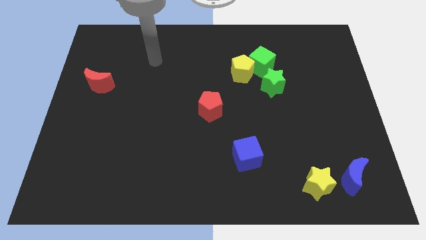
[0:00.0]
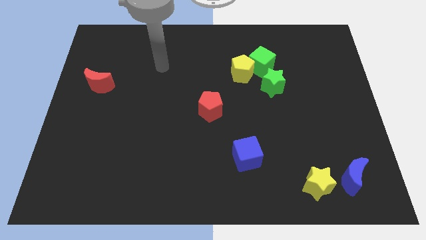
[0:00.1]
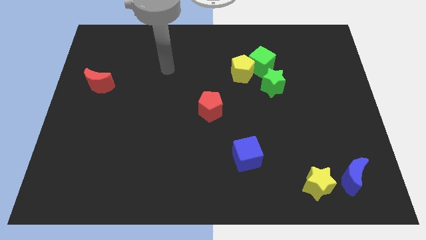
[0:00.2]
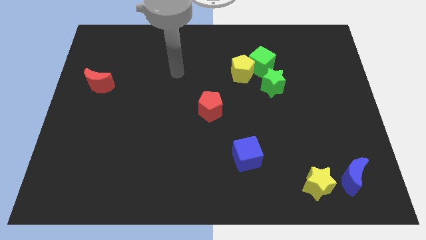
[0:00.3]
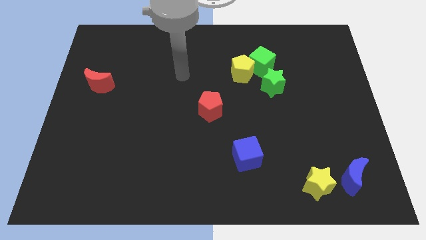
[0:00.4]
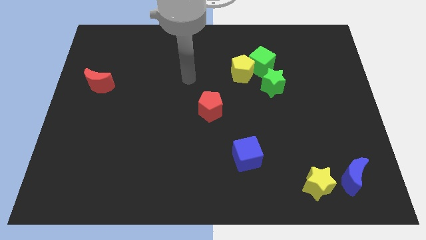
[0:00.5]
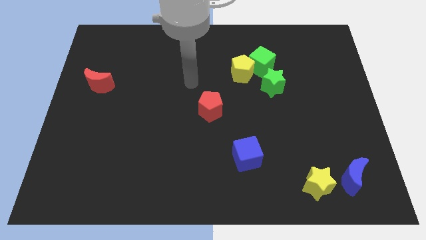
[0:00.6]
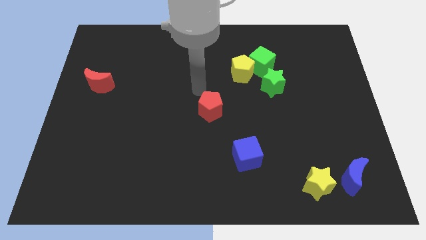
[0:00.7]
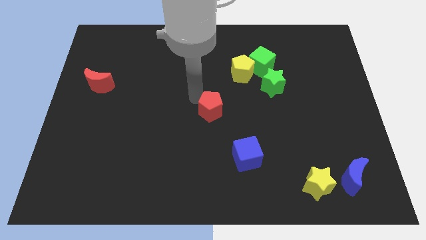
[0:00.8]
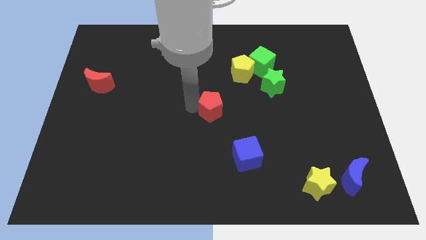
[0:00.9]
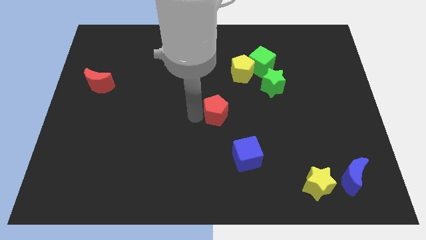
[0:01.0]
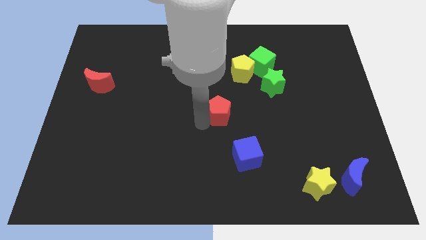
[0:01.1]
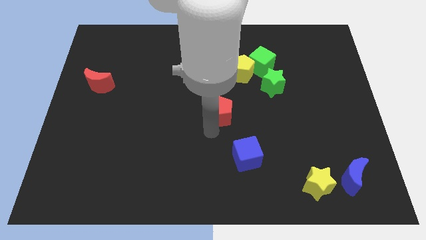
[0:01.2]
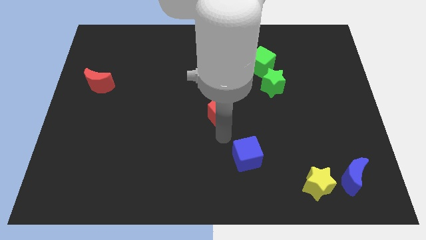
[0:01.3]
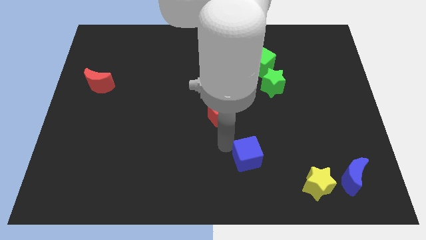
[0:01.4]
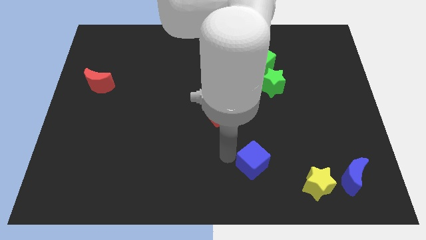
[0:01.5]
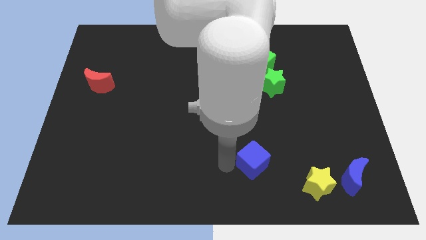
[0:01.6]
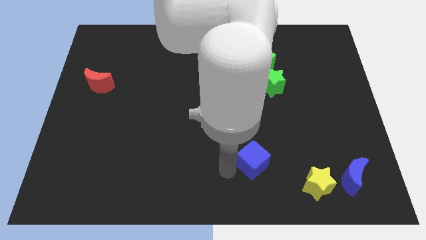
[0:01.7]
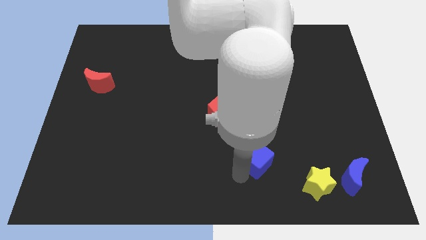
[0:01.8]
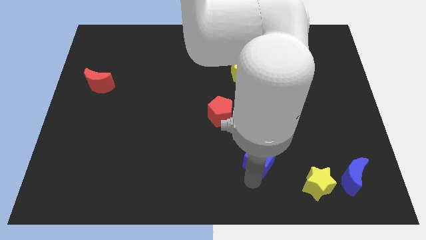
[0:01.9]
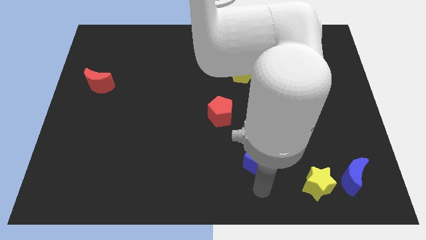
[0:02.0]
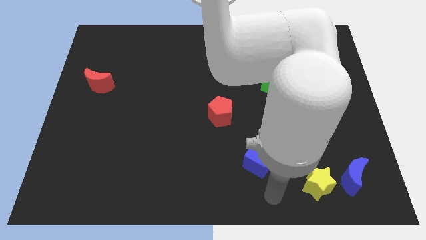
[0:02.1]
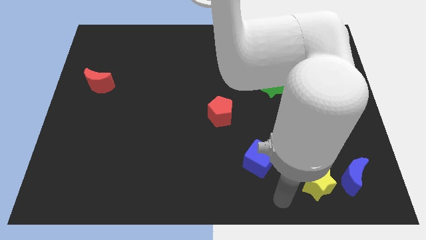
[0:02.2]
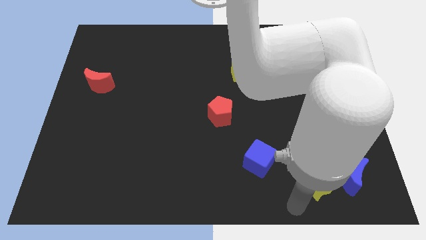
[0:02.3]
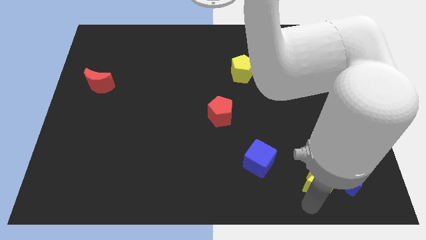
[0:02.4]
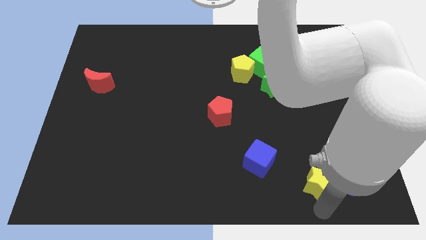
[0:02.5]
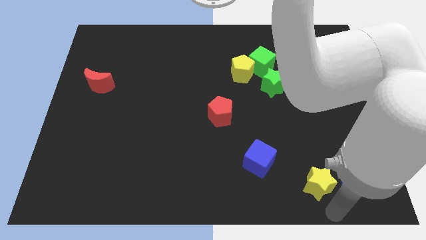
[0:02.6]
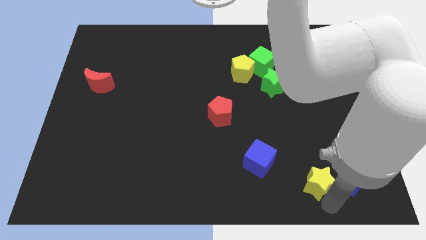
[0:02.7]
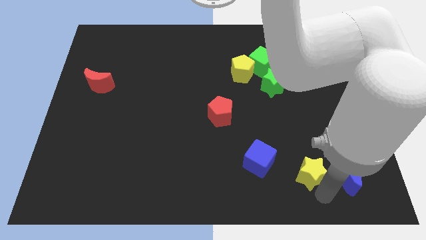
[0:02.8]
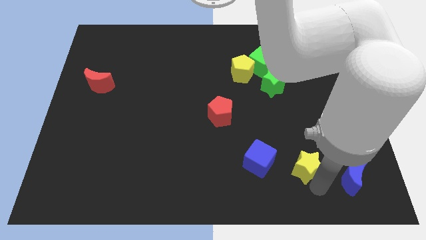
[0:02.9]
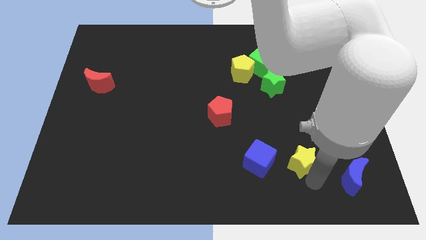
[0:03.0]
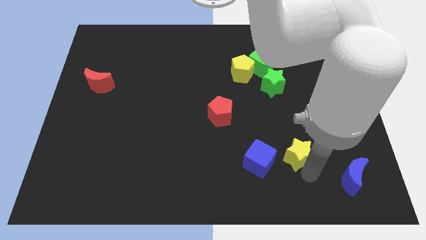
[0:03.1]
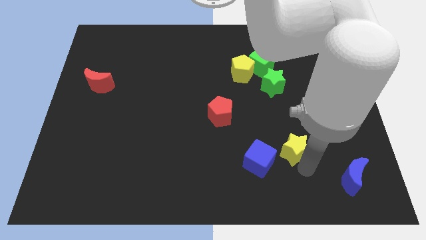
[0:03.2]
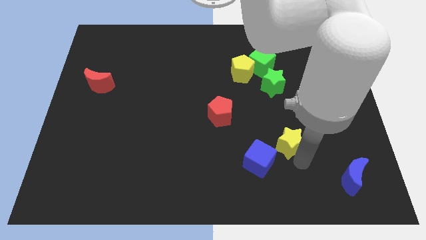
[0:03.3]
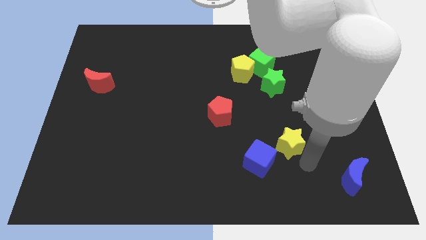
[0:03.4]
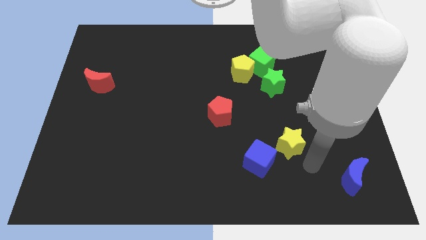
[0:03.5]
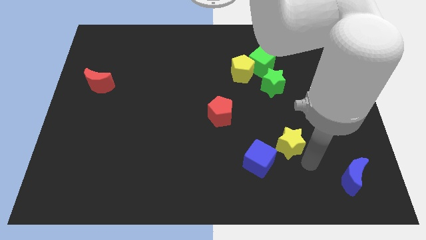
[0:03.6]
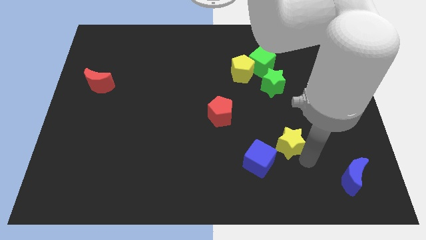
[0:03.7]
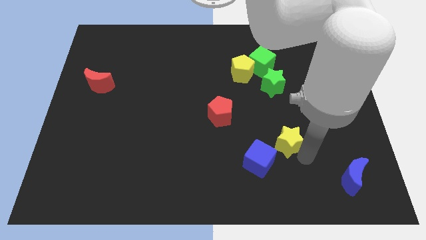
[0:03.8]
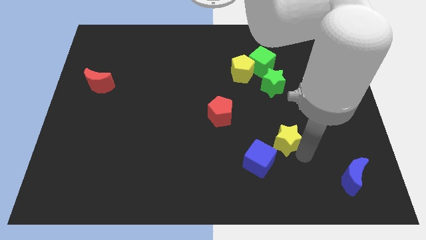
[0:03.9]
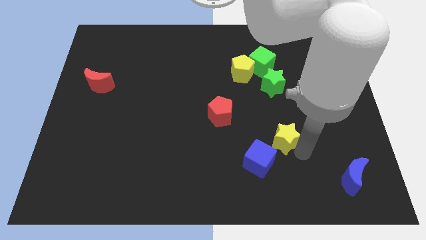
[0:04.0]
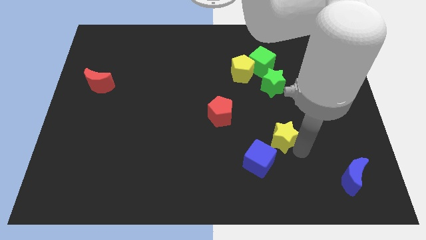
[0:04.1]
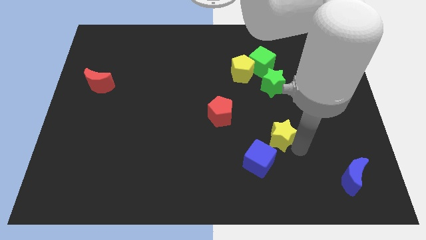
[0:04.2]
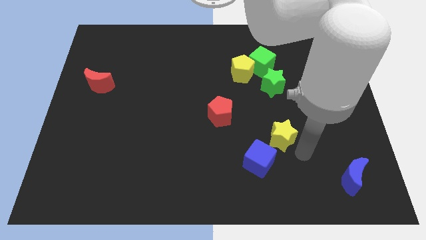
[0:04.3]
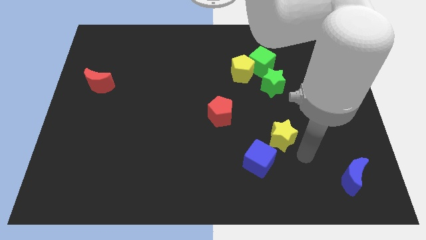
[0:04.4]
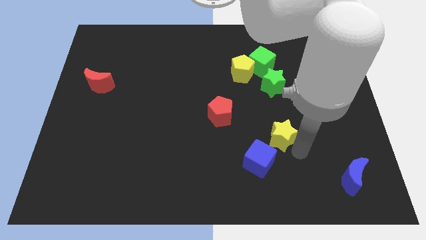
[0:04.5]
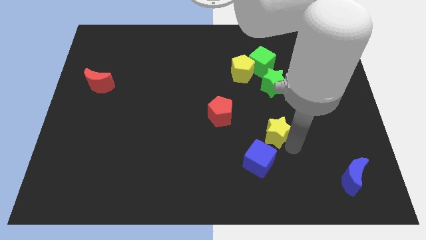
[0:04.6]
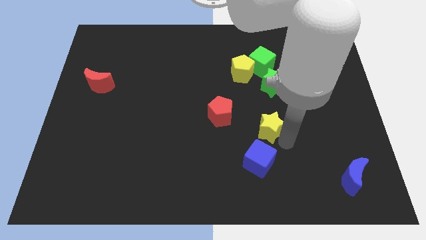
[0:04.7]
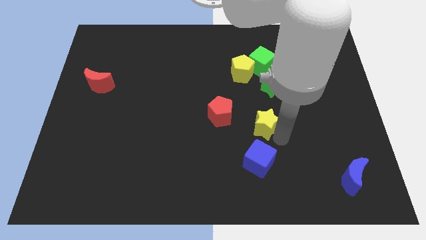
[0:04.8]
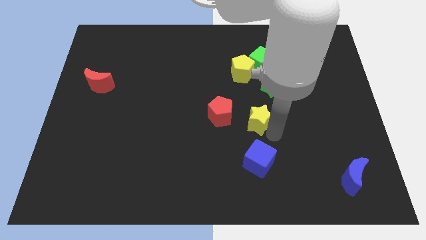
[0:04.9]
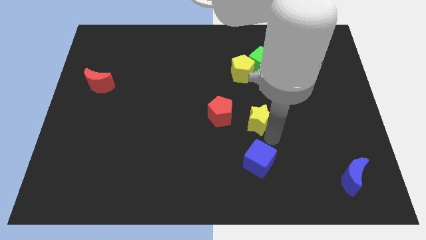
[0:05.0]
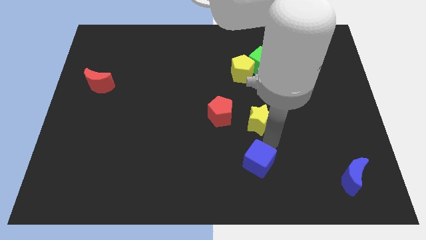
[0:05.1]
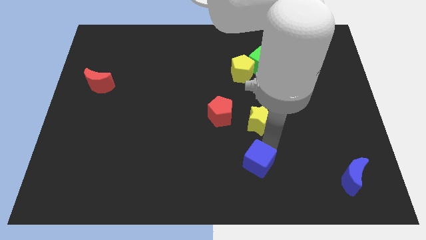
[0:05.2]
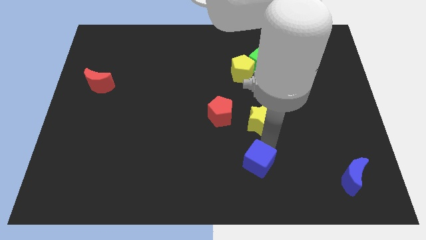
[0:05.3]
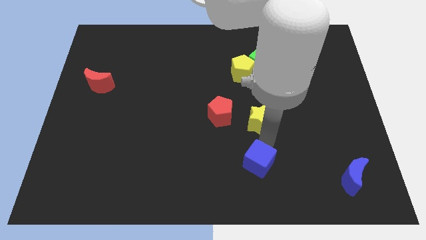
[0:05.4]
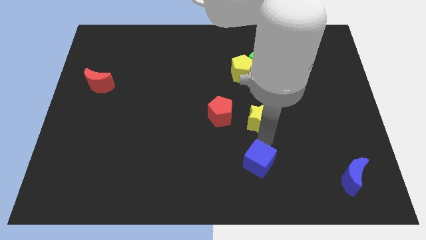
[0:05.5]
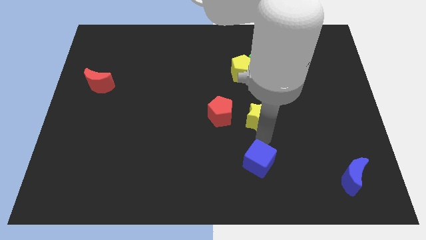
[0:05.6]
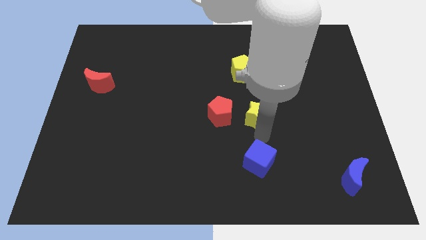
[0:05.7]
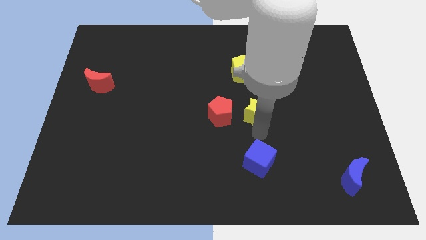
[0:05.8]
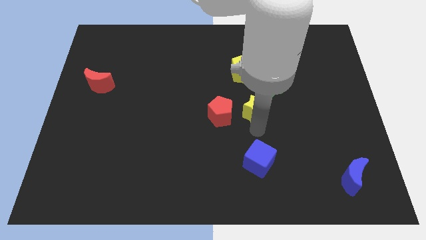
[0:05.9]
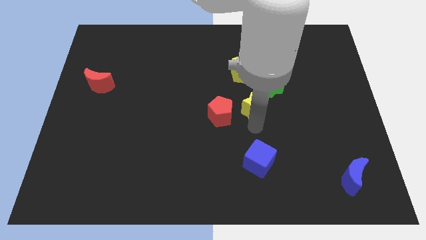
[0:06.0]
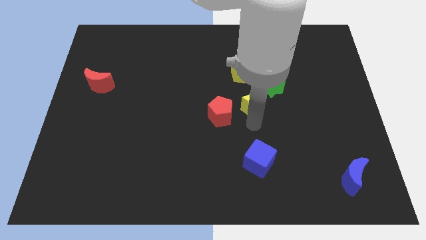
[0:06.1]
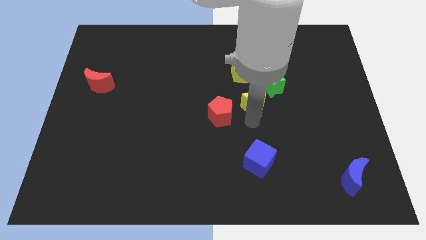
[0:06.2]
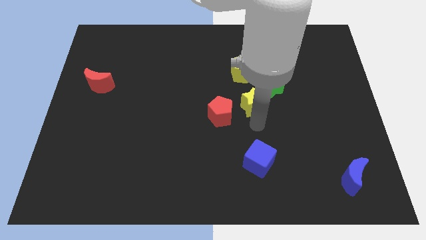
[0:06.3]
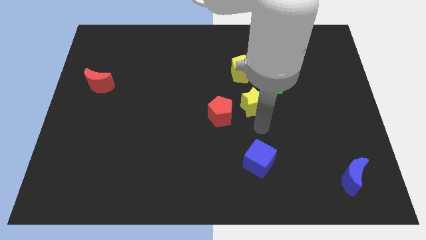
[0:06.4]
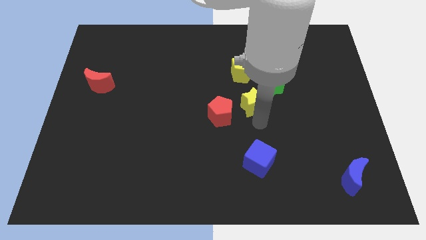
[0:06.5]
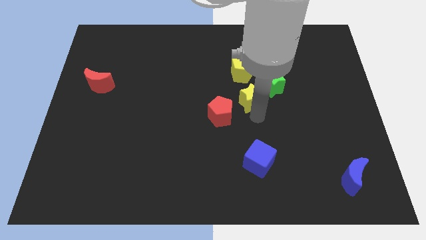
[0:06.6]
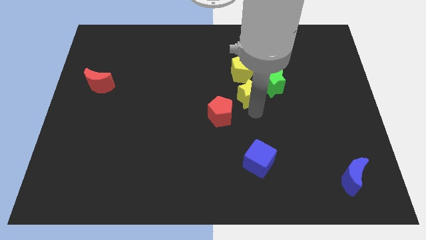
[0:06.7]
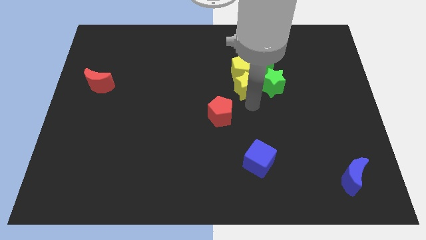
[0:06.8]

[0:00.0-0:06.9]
push the yellow star close to the yellow pentagon
